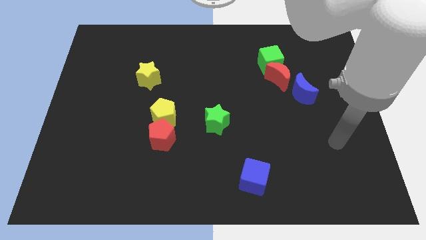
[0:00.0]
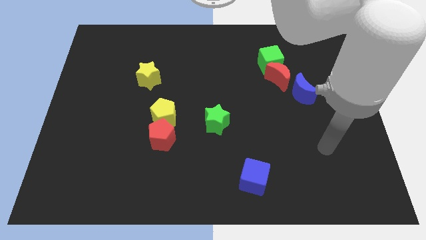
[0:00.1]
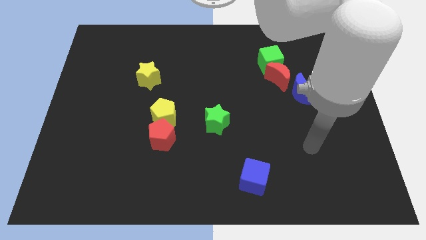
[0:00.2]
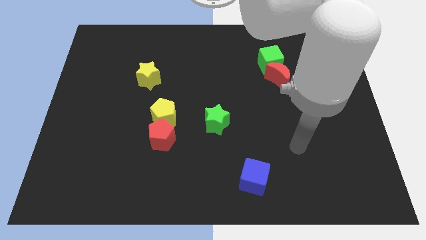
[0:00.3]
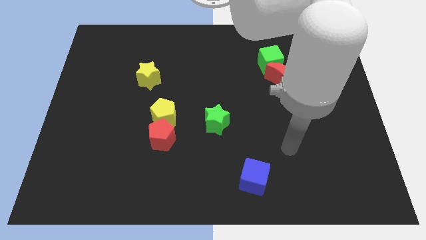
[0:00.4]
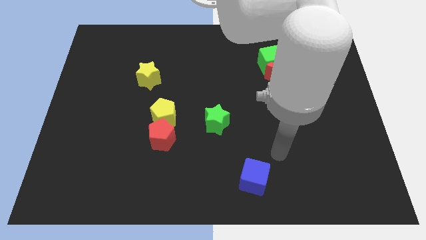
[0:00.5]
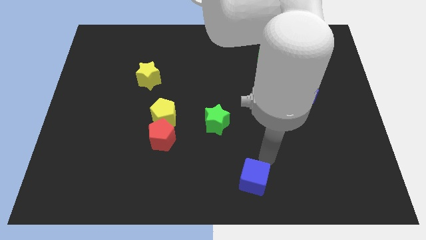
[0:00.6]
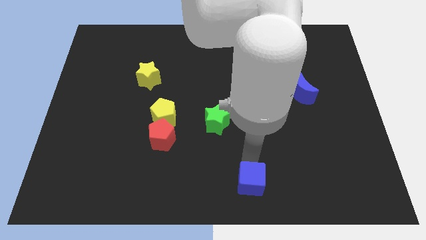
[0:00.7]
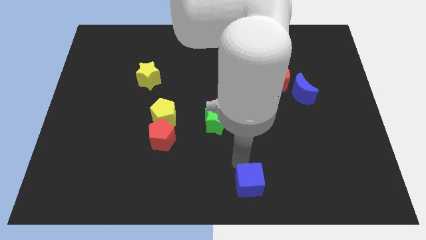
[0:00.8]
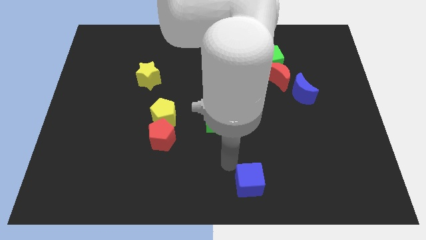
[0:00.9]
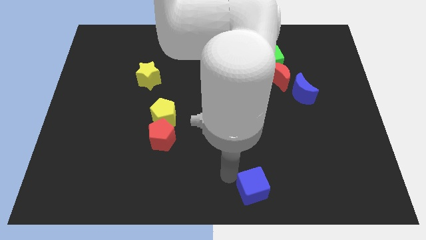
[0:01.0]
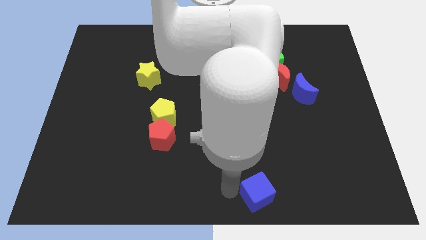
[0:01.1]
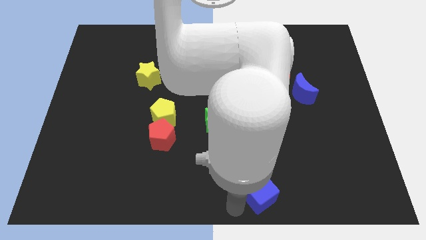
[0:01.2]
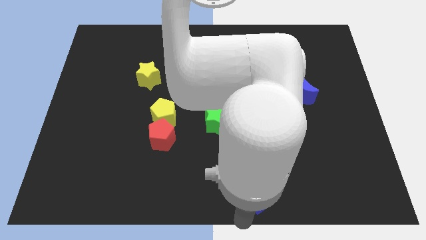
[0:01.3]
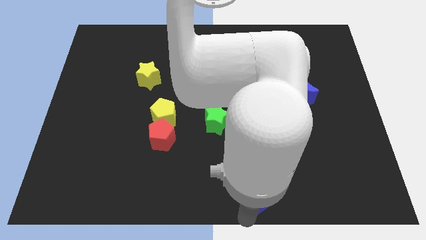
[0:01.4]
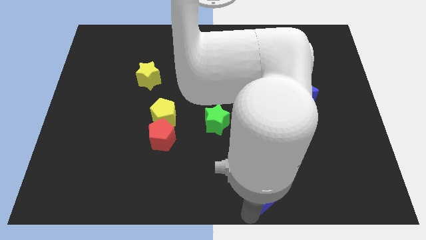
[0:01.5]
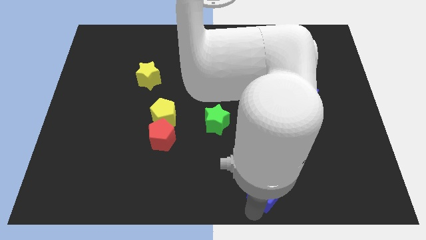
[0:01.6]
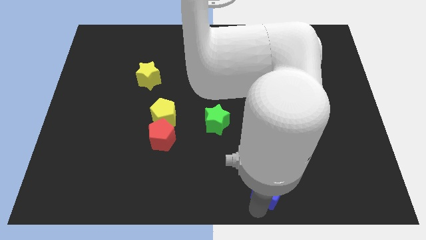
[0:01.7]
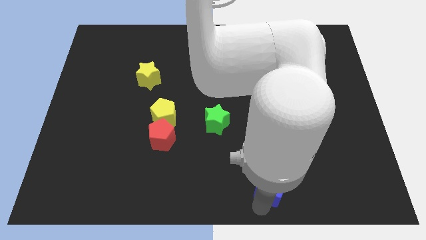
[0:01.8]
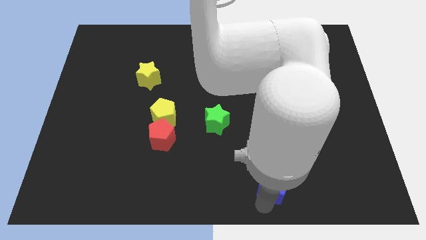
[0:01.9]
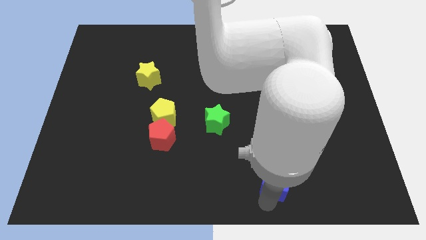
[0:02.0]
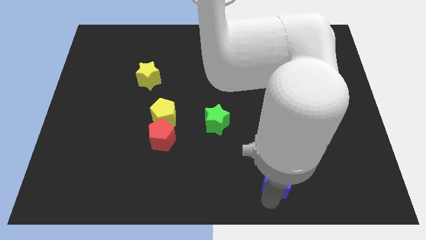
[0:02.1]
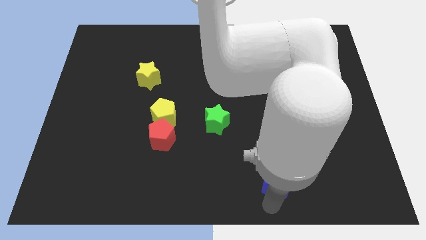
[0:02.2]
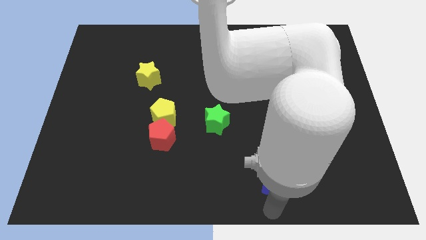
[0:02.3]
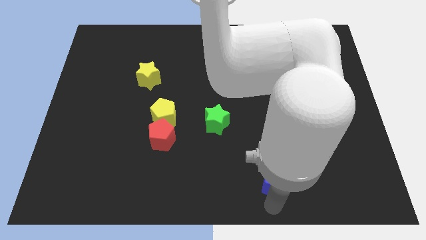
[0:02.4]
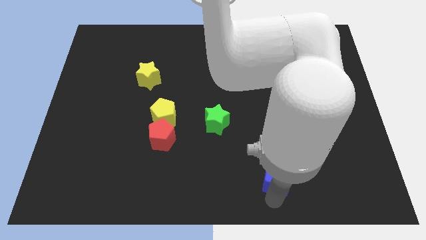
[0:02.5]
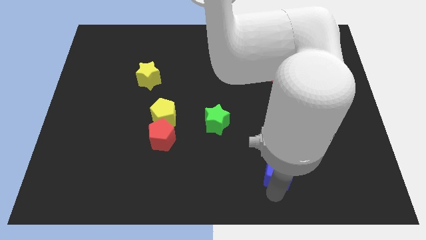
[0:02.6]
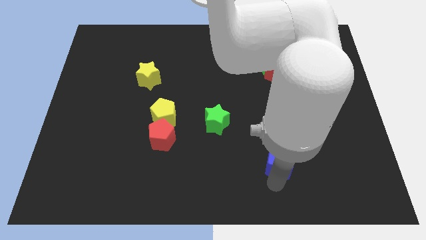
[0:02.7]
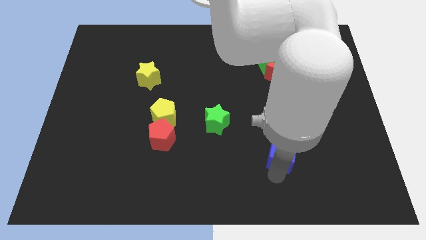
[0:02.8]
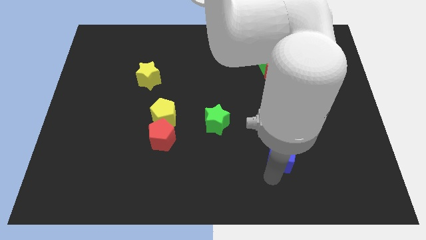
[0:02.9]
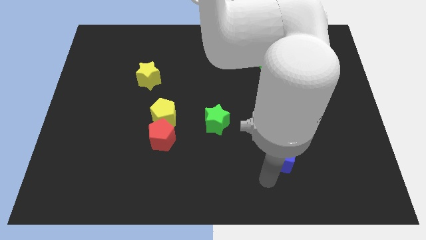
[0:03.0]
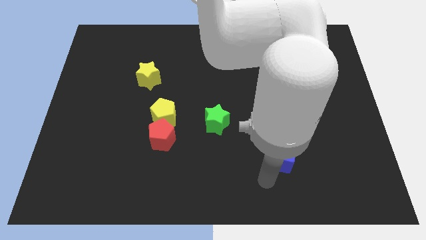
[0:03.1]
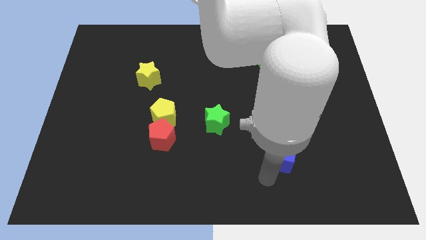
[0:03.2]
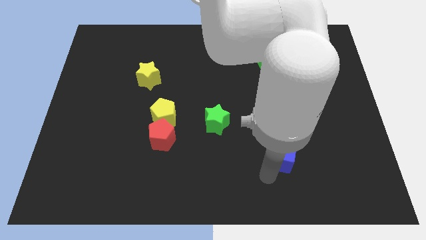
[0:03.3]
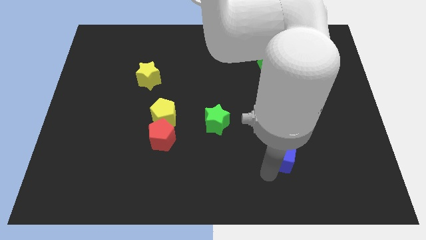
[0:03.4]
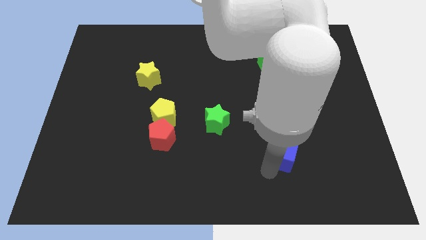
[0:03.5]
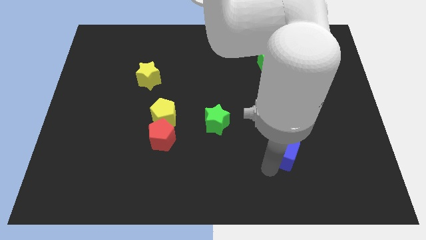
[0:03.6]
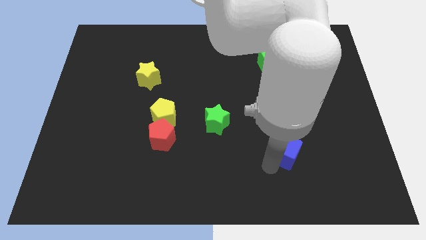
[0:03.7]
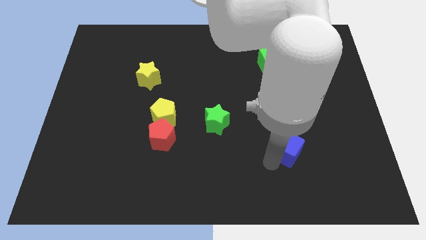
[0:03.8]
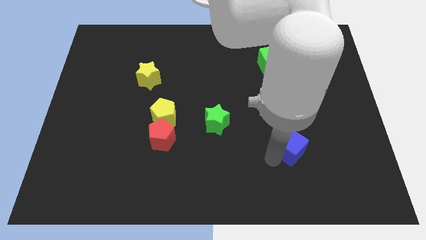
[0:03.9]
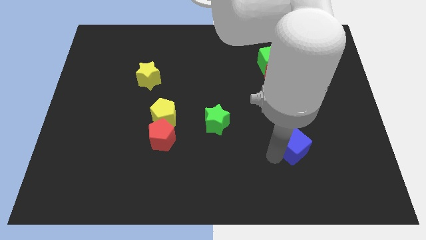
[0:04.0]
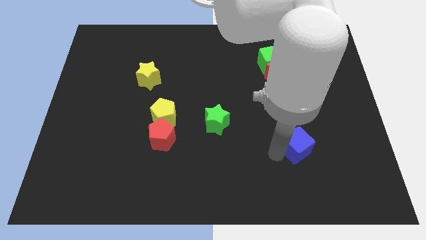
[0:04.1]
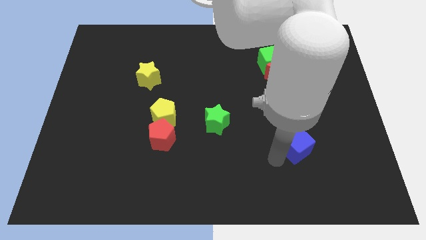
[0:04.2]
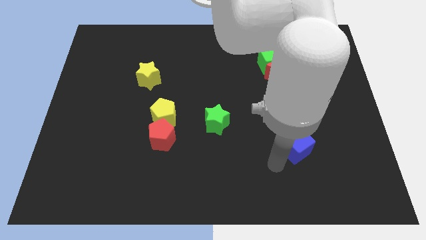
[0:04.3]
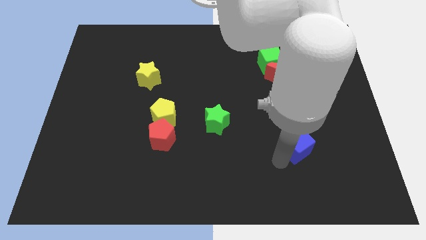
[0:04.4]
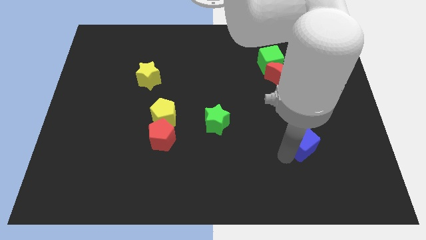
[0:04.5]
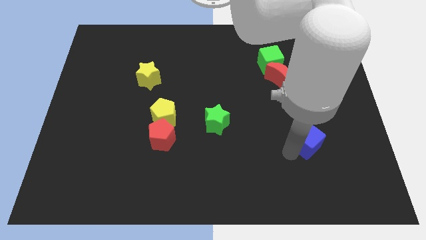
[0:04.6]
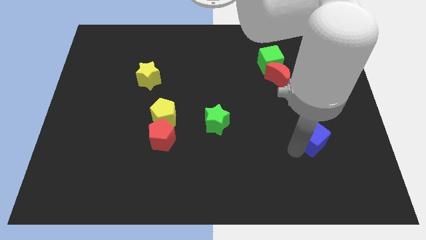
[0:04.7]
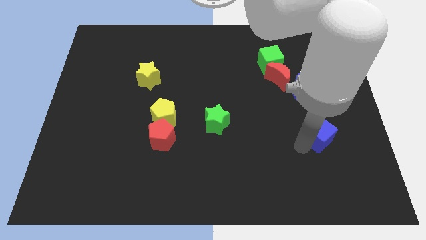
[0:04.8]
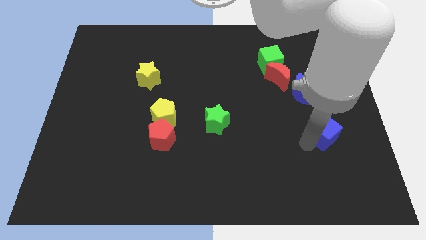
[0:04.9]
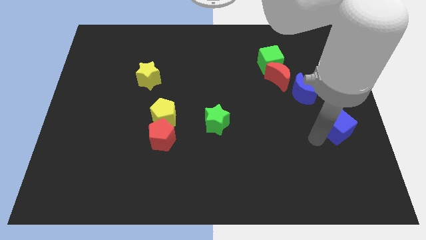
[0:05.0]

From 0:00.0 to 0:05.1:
slide the blue cube to the right side

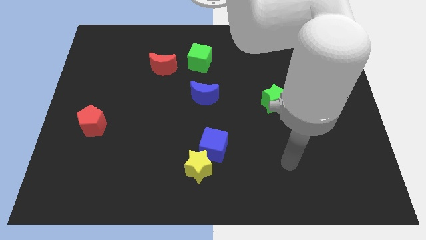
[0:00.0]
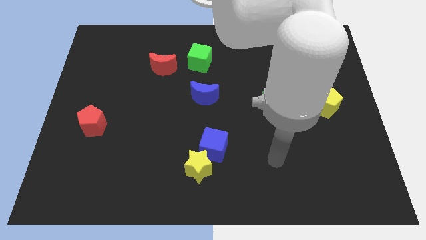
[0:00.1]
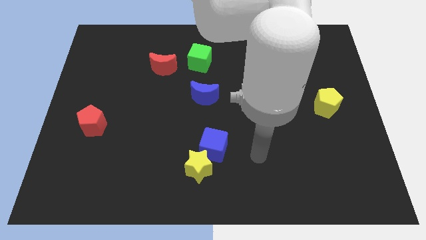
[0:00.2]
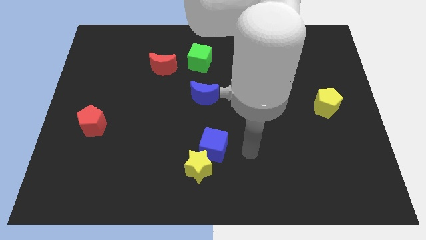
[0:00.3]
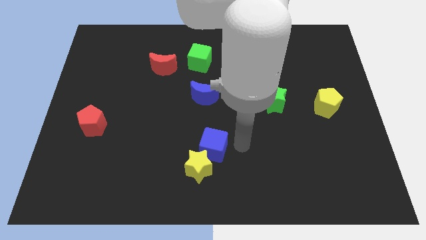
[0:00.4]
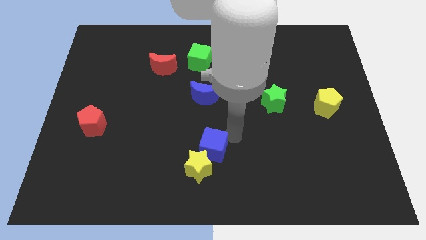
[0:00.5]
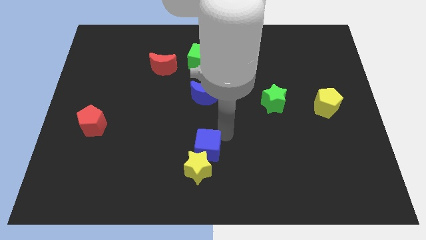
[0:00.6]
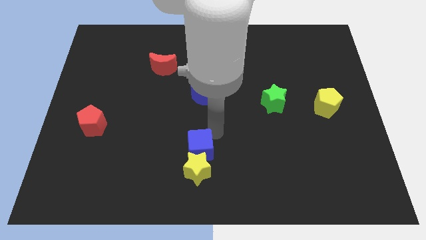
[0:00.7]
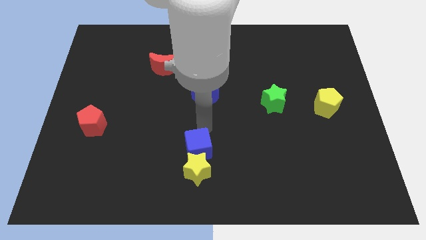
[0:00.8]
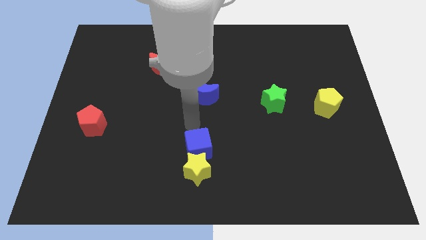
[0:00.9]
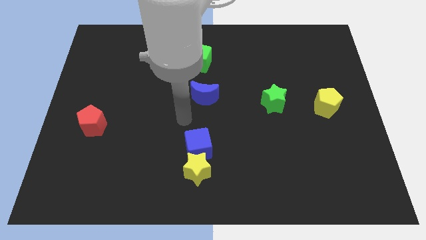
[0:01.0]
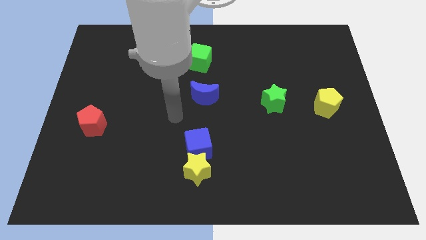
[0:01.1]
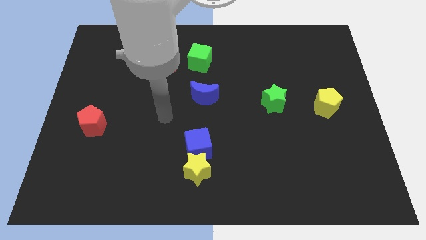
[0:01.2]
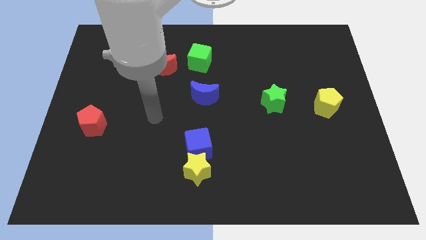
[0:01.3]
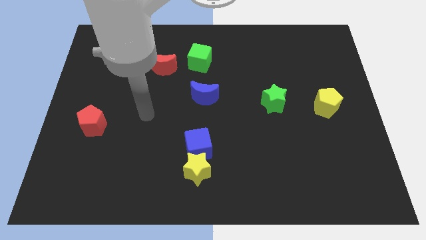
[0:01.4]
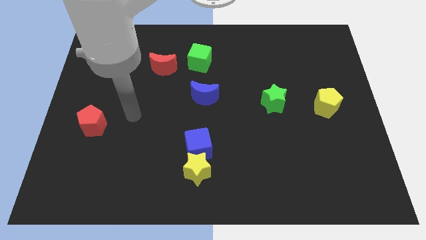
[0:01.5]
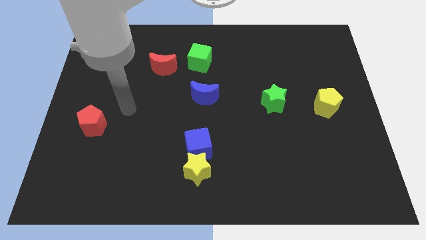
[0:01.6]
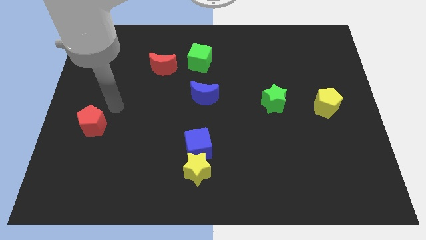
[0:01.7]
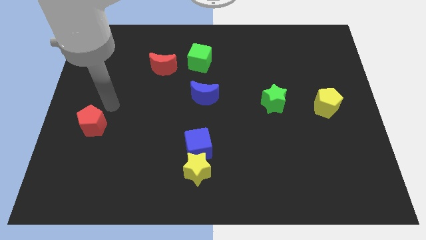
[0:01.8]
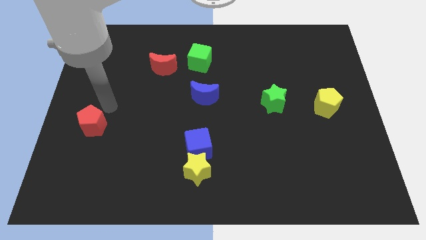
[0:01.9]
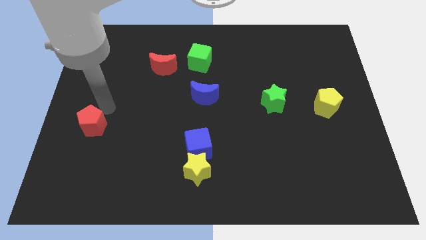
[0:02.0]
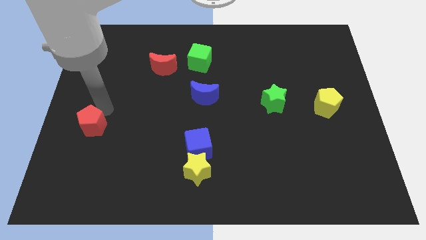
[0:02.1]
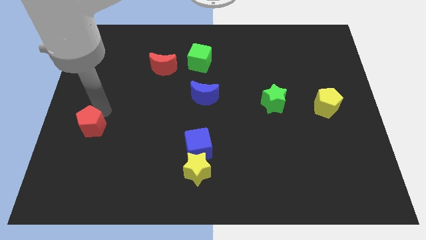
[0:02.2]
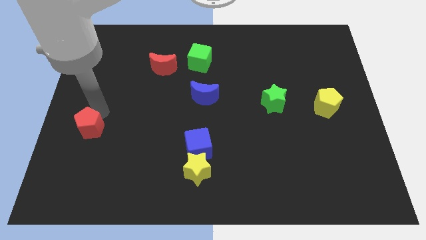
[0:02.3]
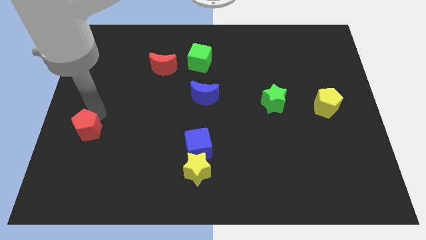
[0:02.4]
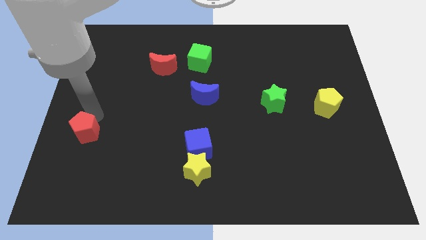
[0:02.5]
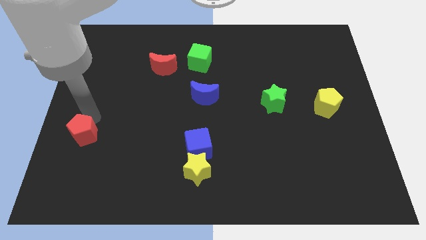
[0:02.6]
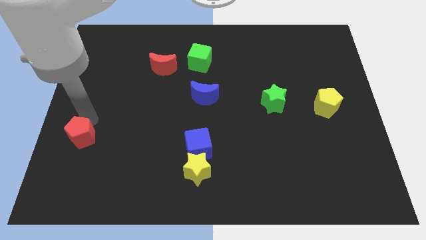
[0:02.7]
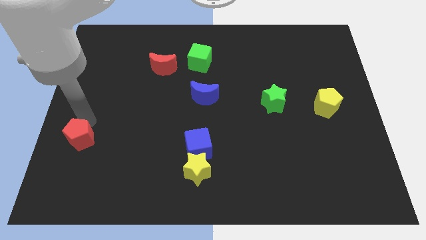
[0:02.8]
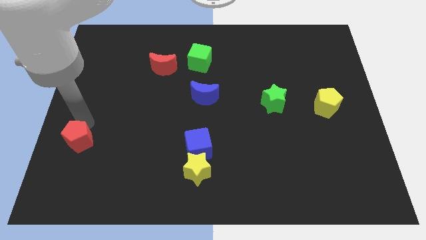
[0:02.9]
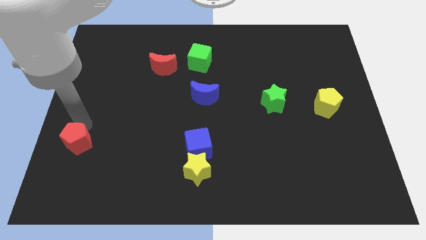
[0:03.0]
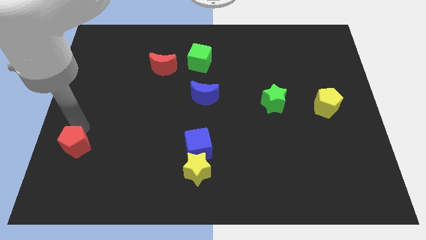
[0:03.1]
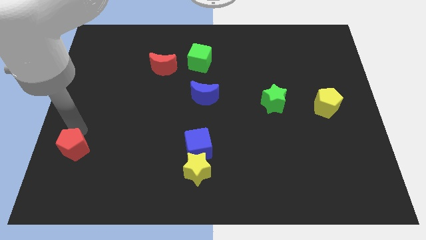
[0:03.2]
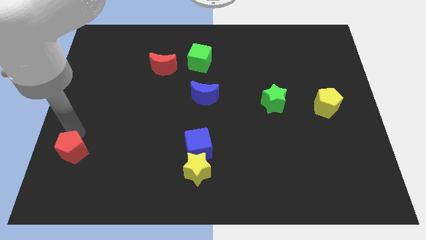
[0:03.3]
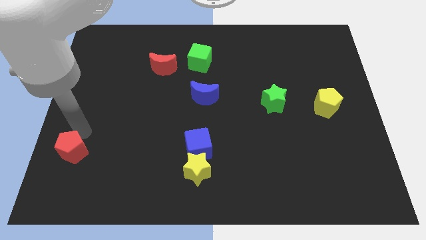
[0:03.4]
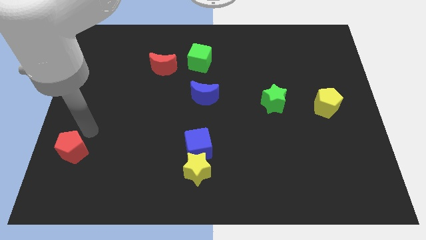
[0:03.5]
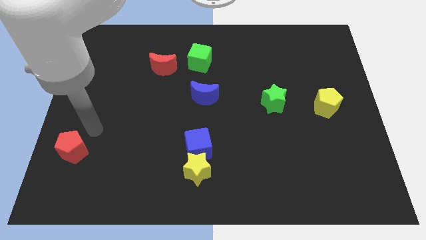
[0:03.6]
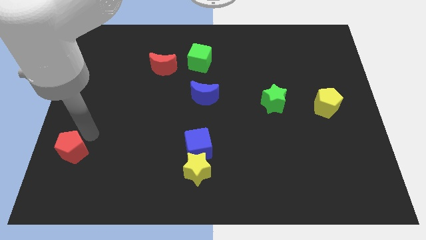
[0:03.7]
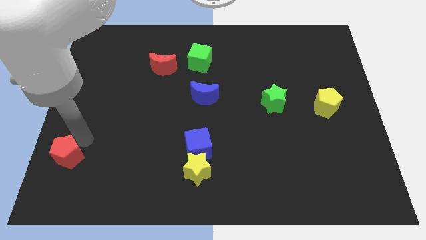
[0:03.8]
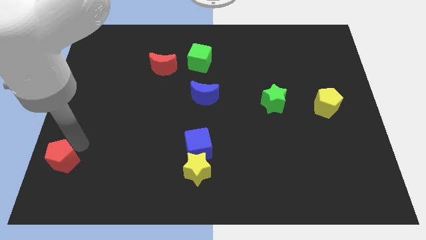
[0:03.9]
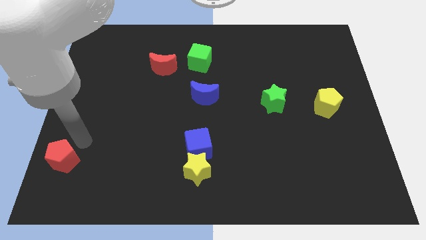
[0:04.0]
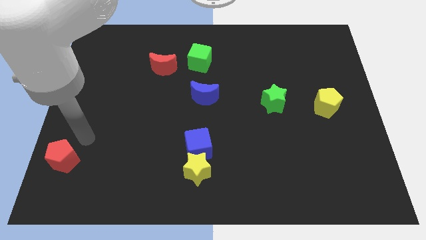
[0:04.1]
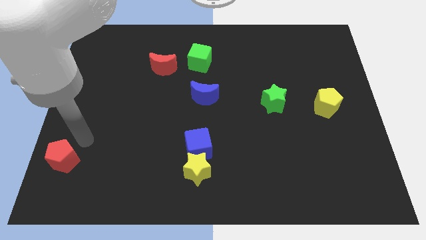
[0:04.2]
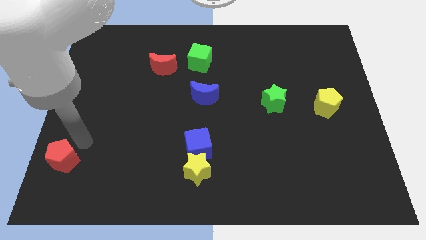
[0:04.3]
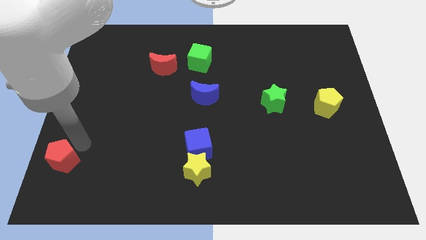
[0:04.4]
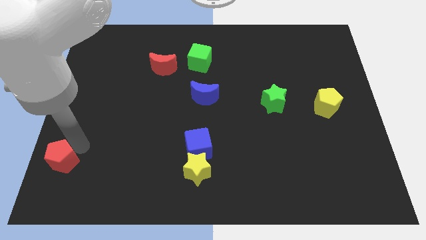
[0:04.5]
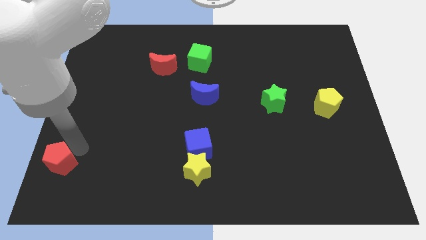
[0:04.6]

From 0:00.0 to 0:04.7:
put the red pentagon to the bottom left of the board
